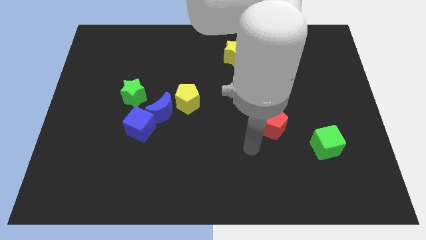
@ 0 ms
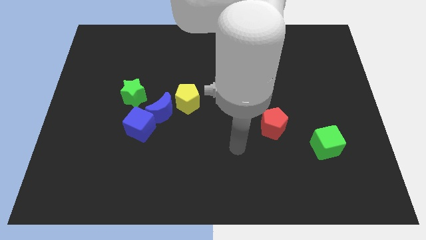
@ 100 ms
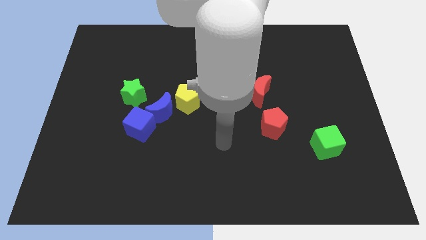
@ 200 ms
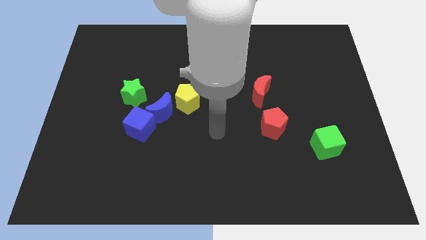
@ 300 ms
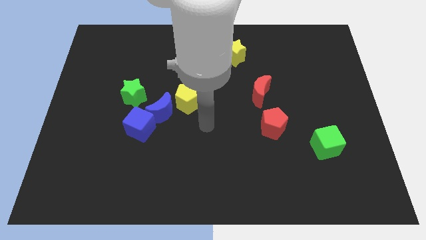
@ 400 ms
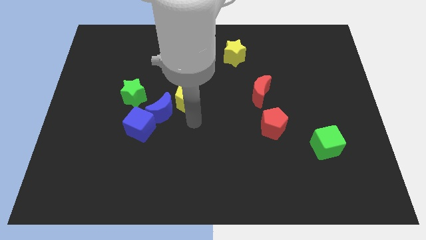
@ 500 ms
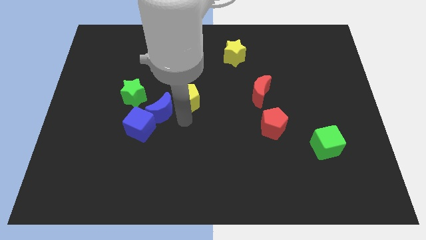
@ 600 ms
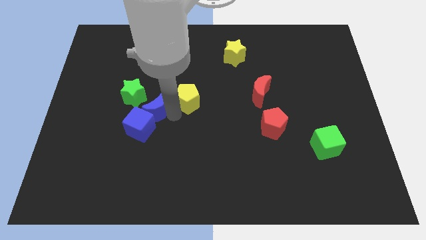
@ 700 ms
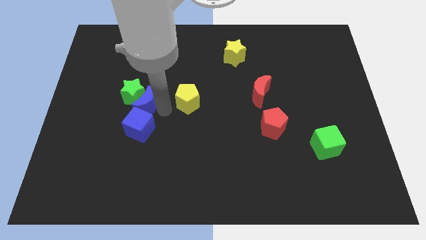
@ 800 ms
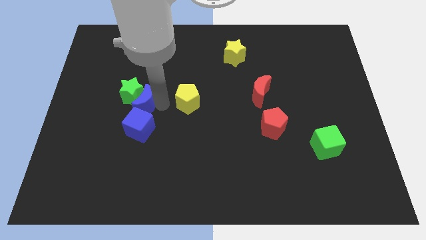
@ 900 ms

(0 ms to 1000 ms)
separate the yellow pentagon from the blue moon

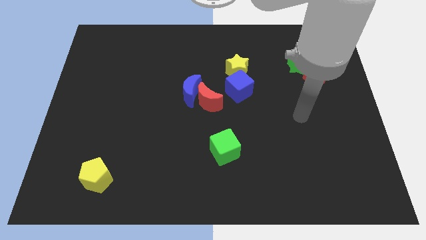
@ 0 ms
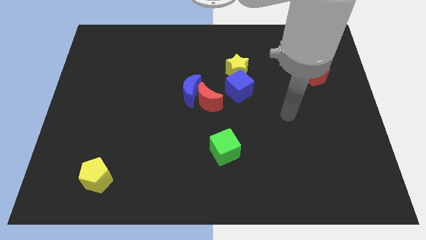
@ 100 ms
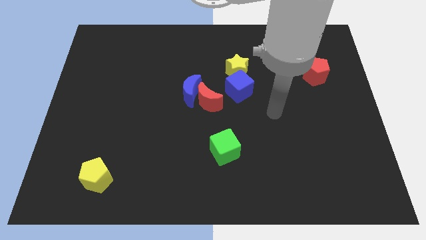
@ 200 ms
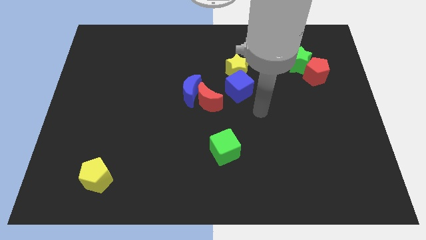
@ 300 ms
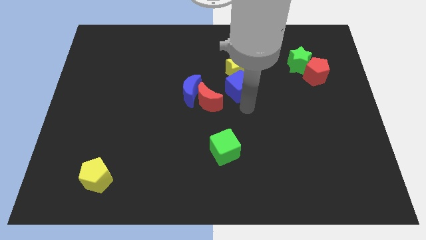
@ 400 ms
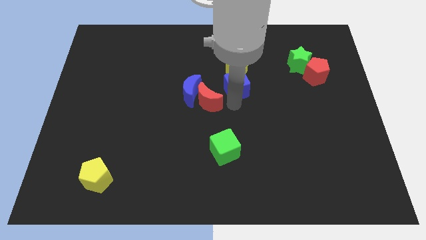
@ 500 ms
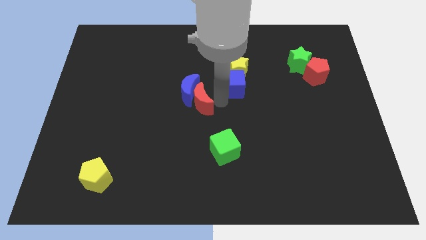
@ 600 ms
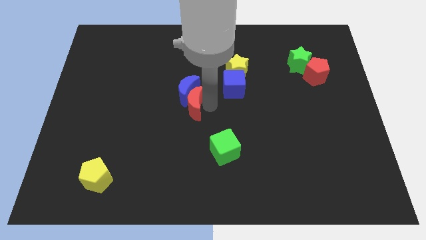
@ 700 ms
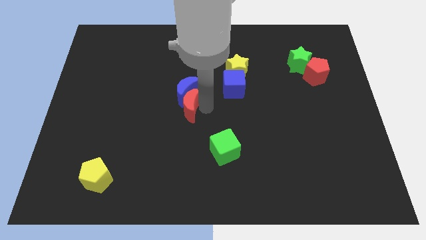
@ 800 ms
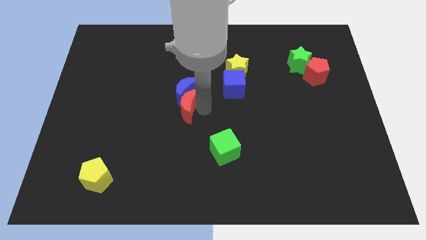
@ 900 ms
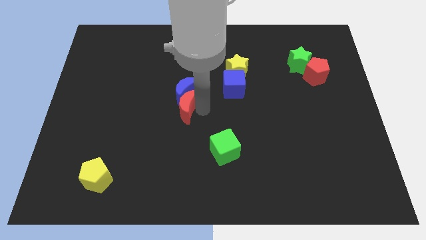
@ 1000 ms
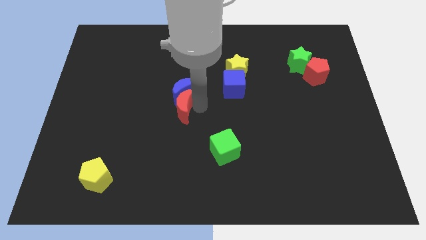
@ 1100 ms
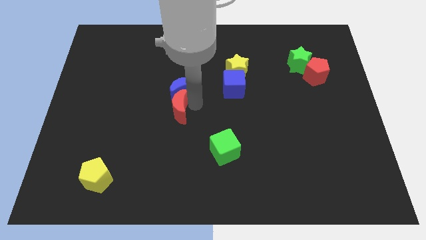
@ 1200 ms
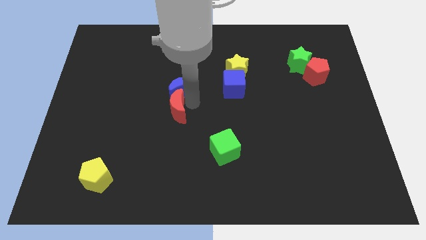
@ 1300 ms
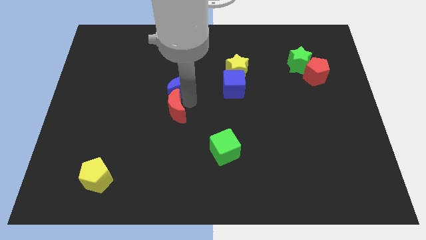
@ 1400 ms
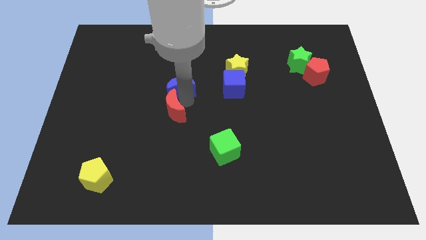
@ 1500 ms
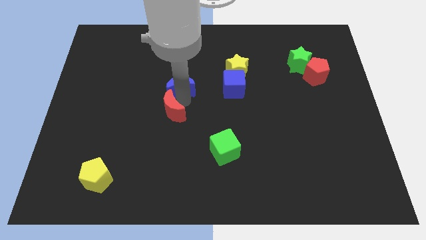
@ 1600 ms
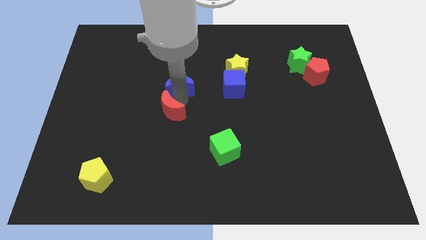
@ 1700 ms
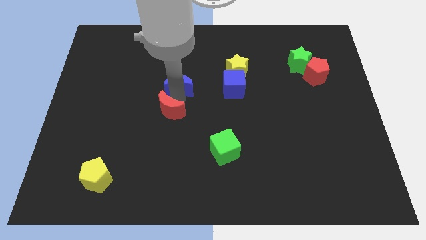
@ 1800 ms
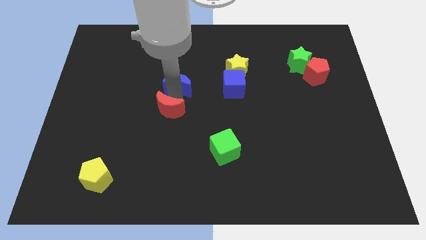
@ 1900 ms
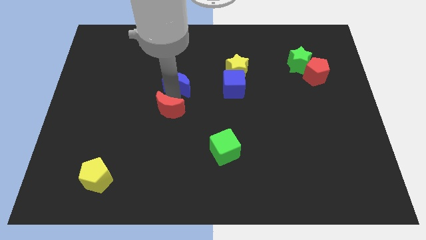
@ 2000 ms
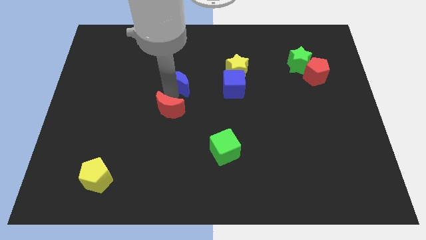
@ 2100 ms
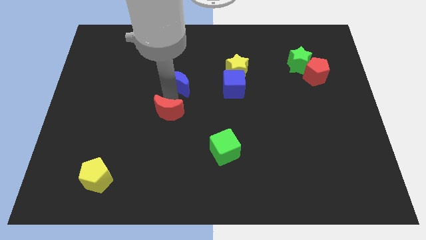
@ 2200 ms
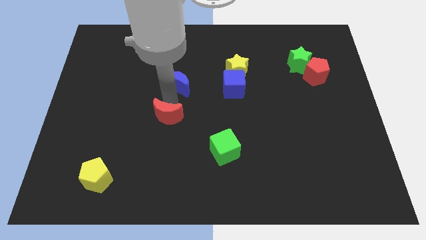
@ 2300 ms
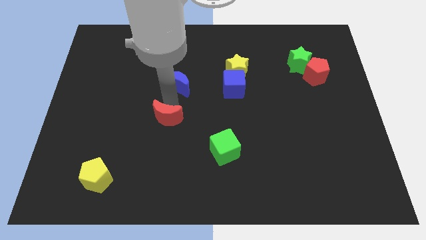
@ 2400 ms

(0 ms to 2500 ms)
pull the blue moon apart from the red moon

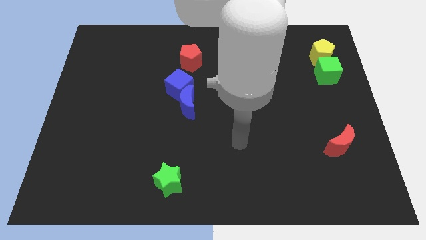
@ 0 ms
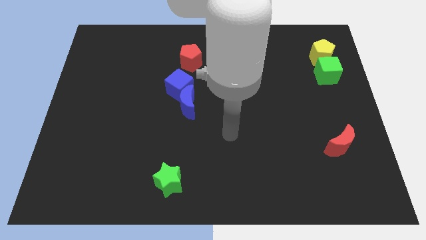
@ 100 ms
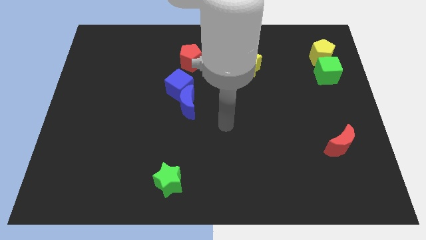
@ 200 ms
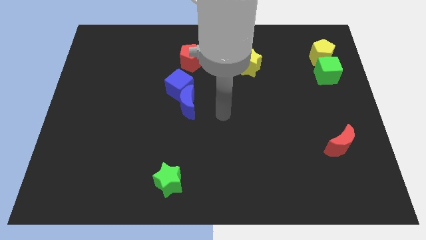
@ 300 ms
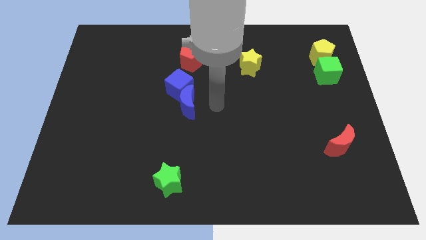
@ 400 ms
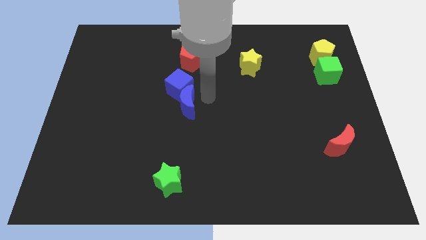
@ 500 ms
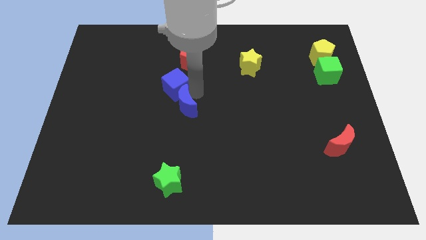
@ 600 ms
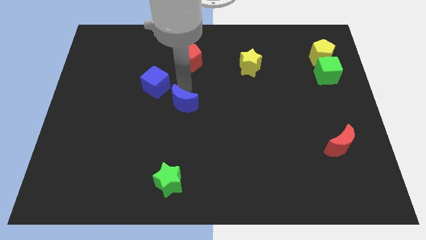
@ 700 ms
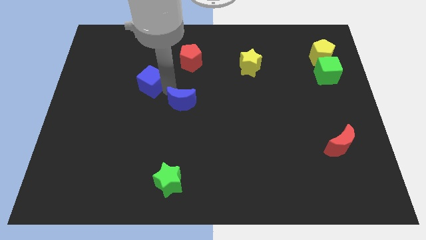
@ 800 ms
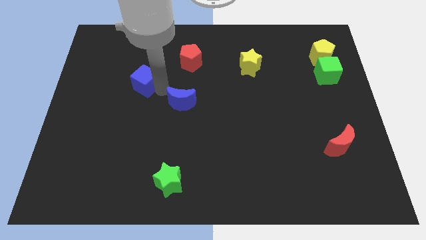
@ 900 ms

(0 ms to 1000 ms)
separate the blue moon from the blue cube

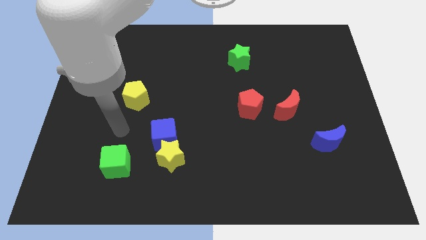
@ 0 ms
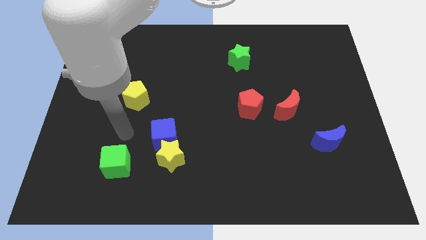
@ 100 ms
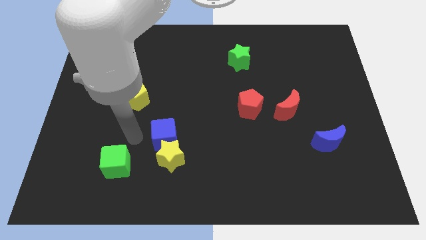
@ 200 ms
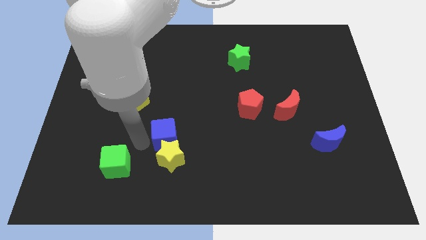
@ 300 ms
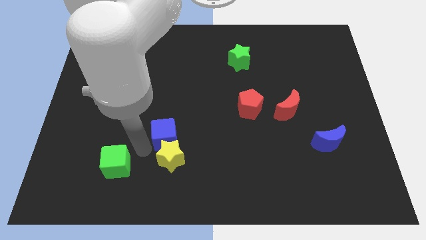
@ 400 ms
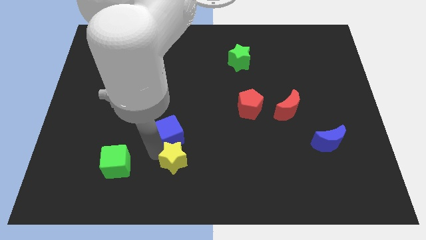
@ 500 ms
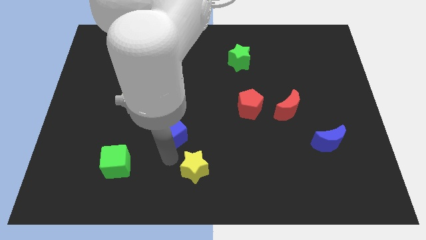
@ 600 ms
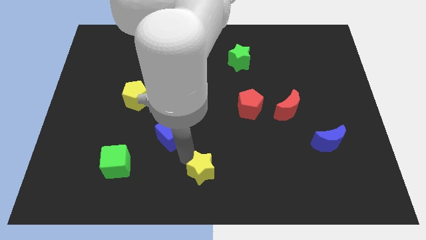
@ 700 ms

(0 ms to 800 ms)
move the blue cube away from the yellow star

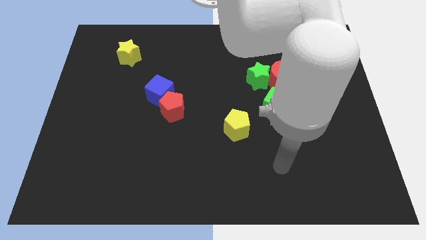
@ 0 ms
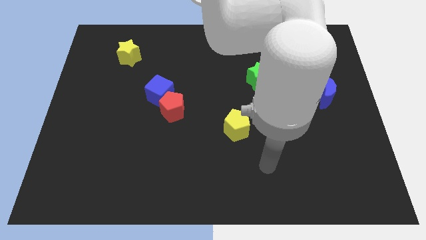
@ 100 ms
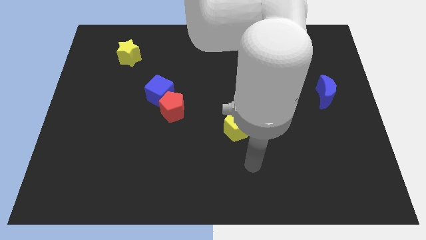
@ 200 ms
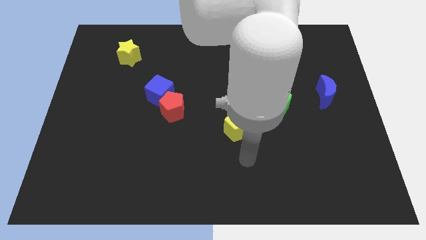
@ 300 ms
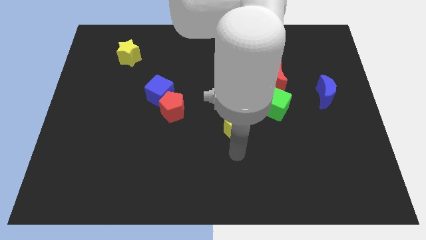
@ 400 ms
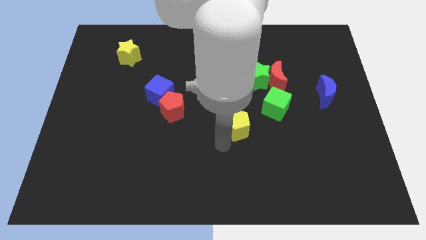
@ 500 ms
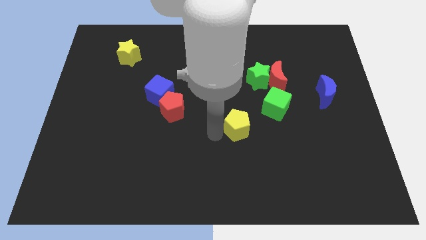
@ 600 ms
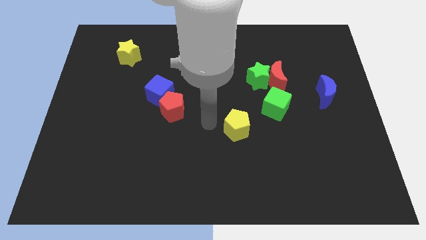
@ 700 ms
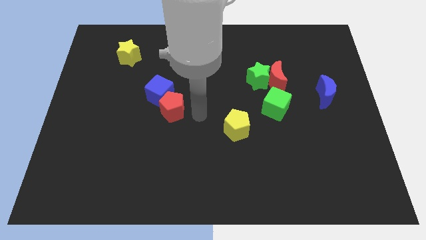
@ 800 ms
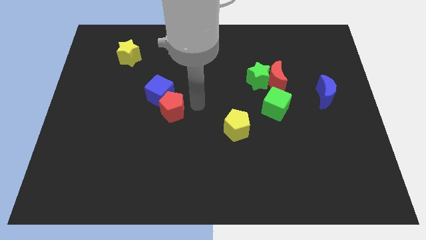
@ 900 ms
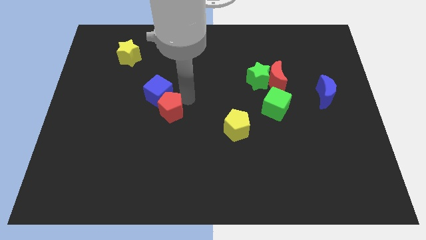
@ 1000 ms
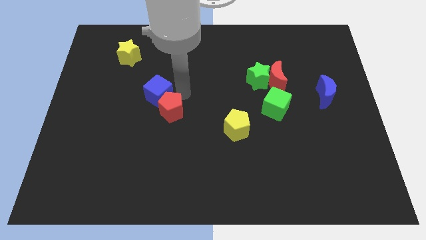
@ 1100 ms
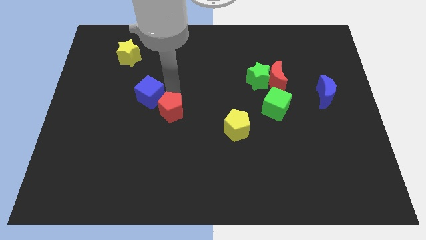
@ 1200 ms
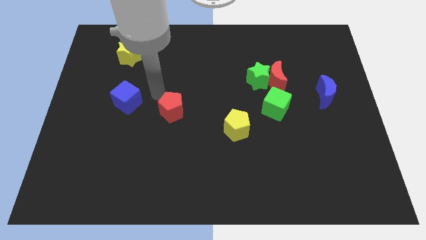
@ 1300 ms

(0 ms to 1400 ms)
pull the red pentagon apart from the blue cube

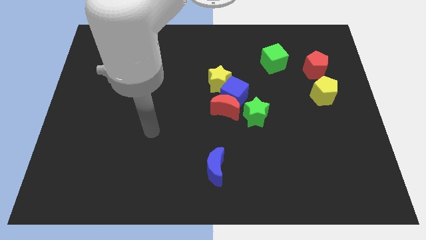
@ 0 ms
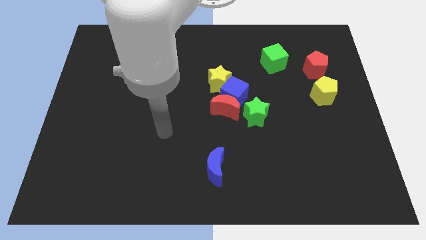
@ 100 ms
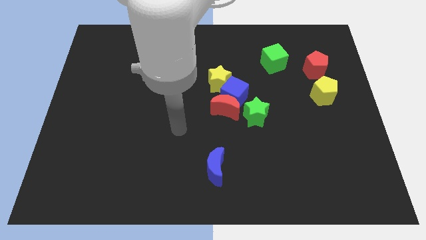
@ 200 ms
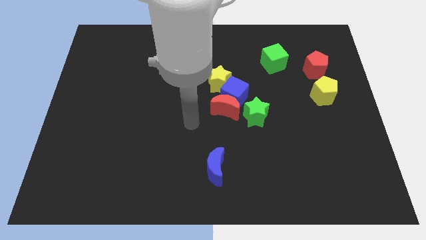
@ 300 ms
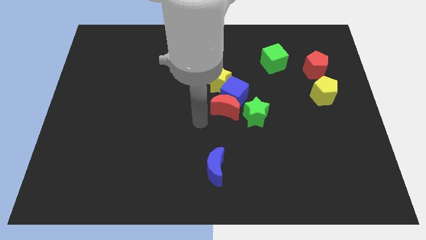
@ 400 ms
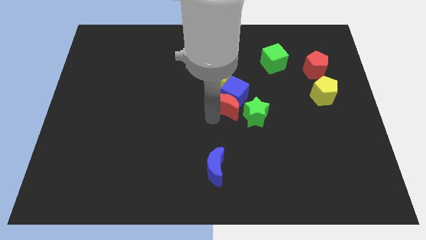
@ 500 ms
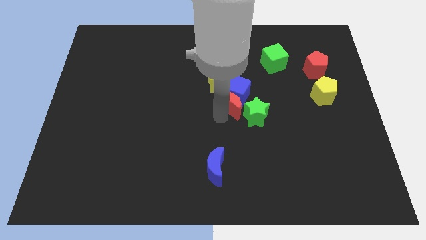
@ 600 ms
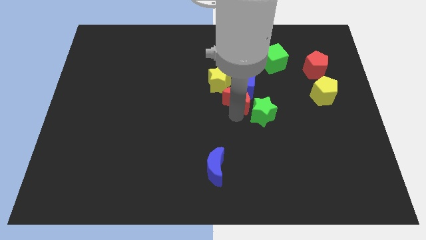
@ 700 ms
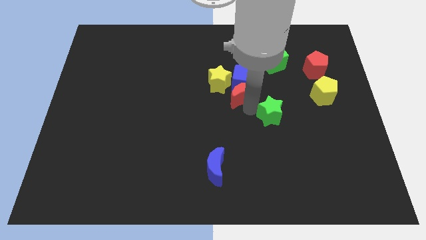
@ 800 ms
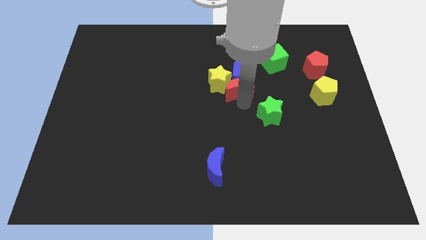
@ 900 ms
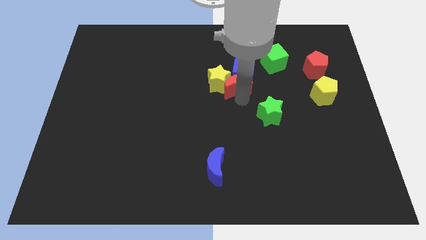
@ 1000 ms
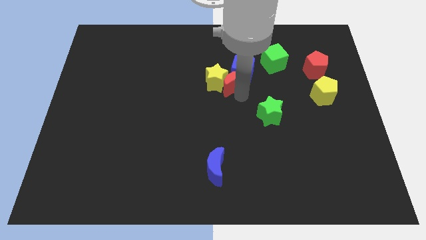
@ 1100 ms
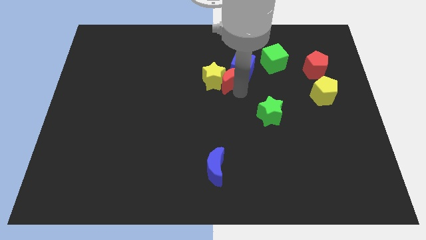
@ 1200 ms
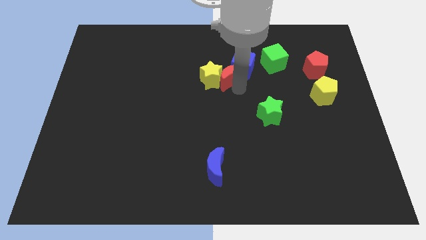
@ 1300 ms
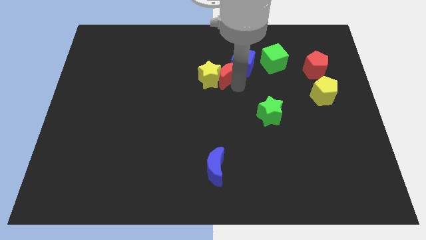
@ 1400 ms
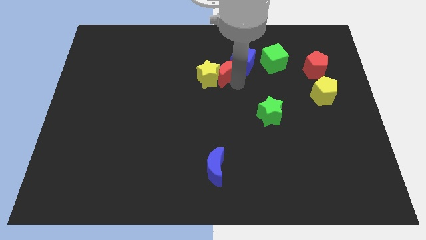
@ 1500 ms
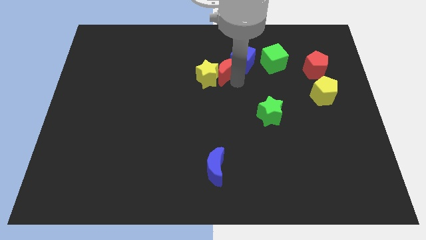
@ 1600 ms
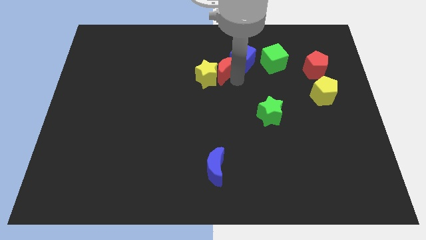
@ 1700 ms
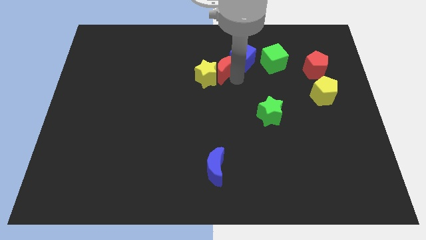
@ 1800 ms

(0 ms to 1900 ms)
separate the blue cube from the red moon, yellow star, and green star

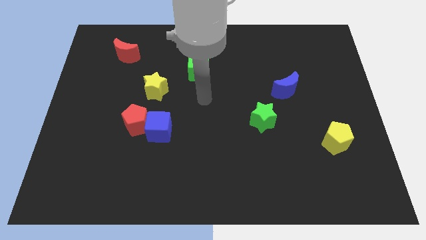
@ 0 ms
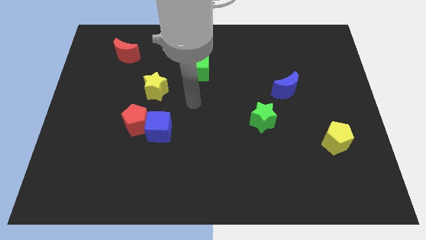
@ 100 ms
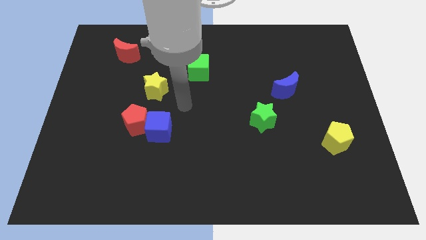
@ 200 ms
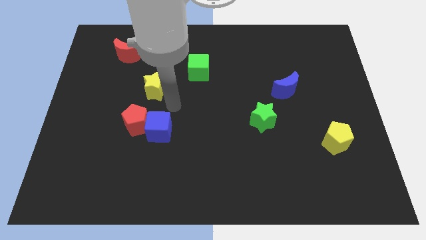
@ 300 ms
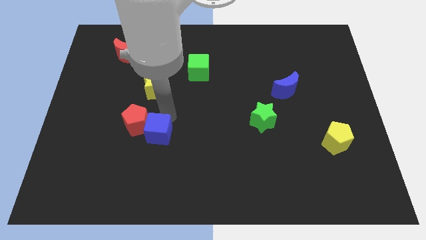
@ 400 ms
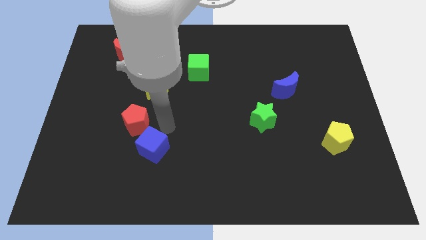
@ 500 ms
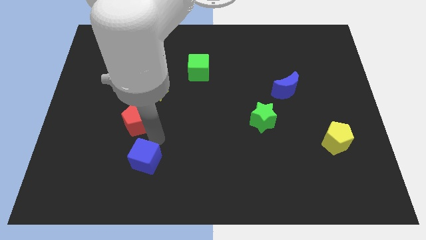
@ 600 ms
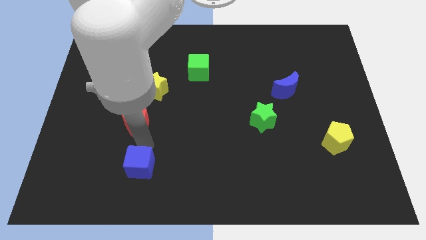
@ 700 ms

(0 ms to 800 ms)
separate the red pentagon from the blue cube

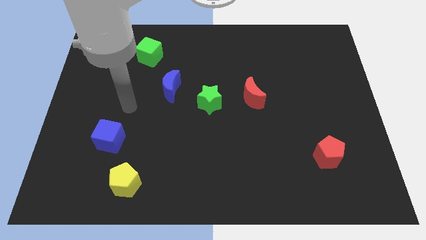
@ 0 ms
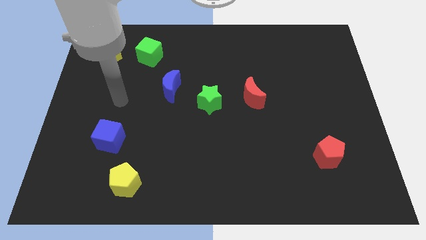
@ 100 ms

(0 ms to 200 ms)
move the green cube away from the yellow star
